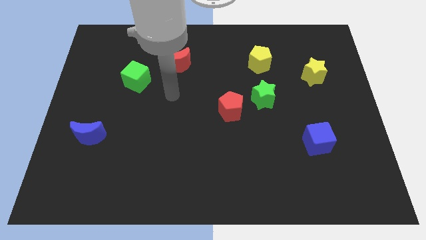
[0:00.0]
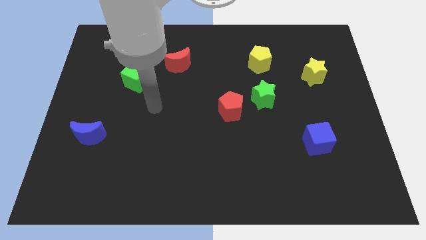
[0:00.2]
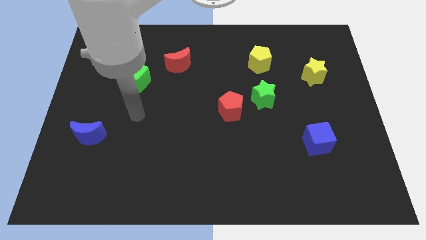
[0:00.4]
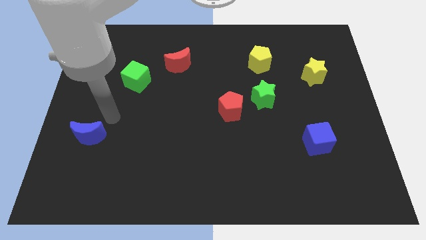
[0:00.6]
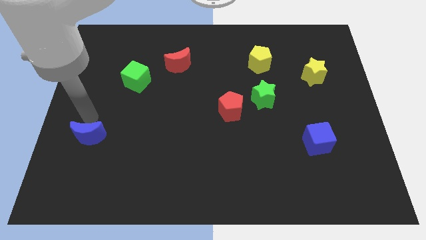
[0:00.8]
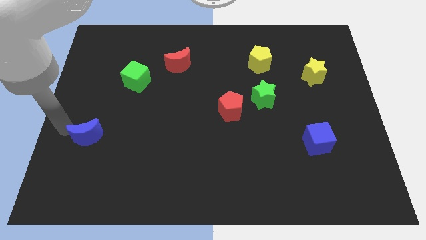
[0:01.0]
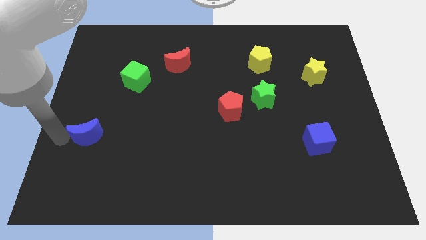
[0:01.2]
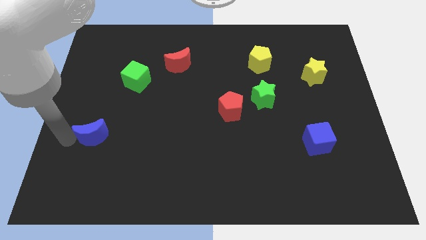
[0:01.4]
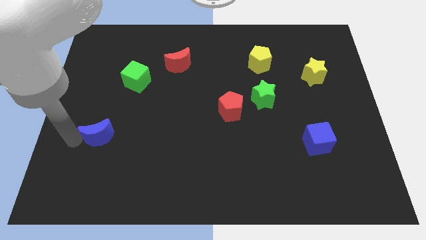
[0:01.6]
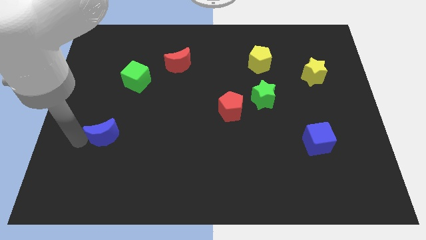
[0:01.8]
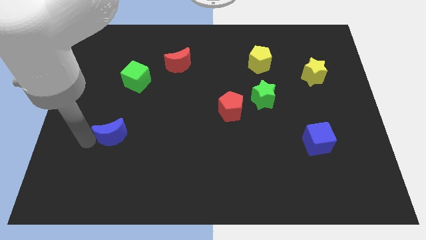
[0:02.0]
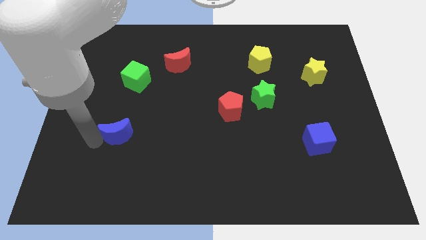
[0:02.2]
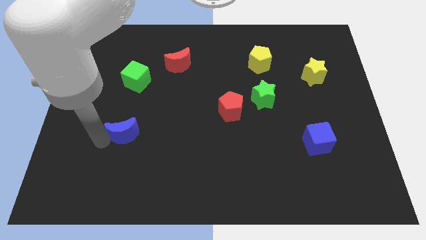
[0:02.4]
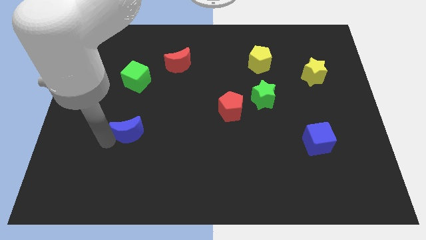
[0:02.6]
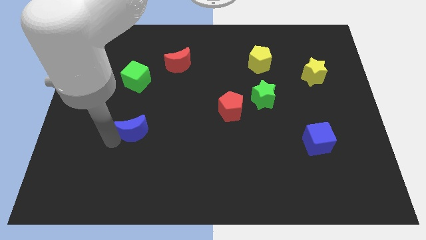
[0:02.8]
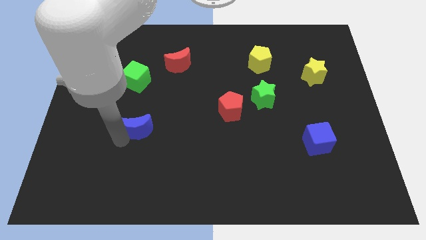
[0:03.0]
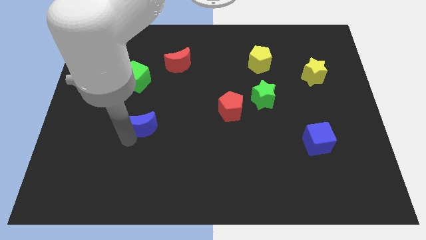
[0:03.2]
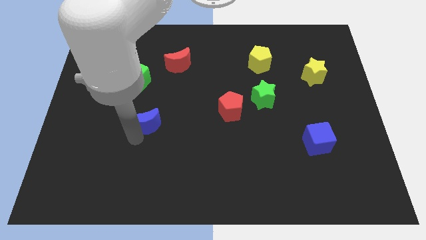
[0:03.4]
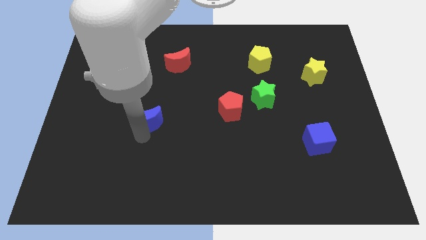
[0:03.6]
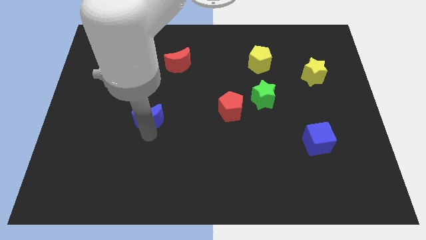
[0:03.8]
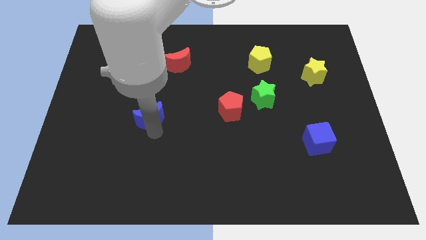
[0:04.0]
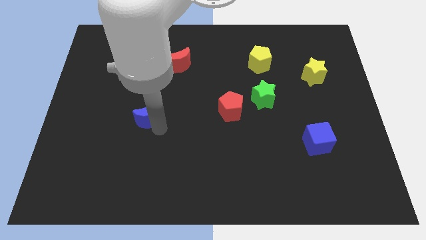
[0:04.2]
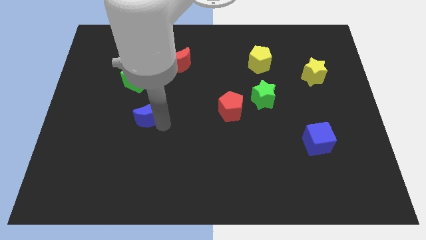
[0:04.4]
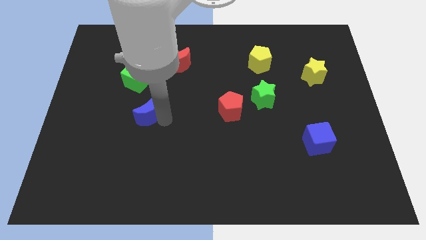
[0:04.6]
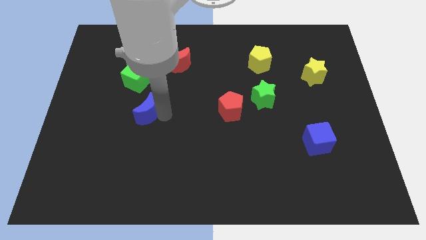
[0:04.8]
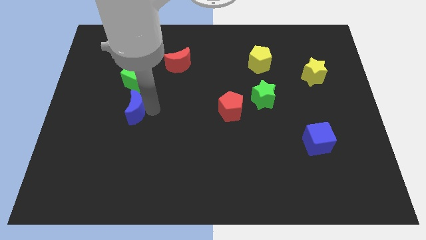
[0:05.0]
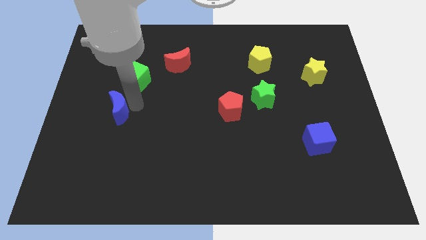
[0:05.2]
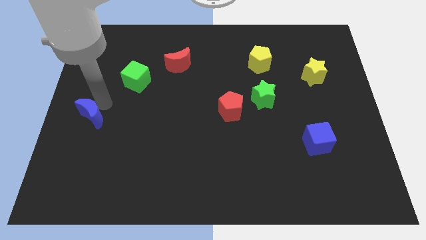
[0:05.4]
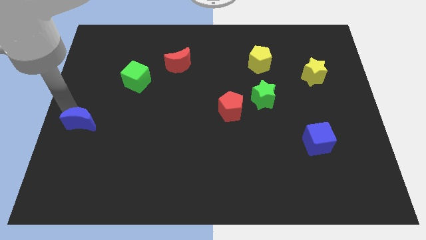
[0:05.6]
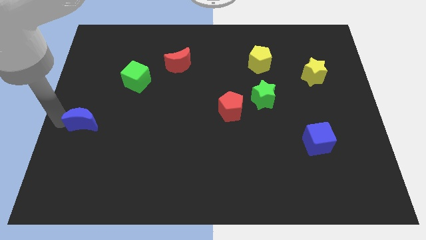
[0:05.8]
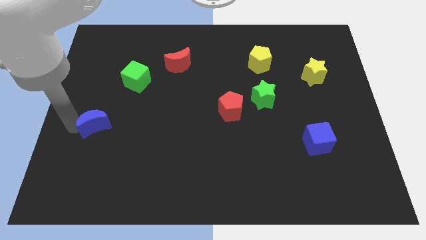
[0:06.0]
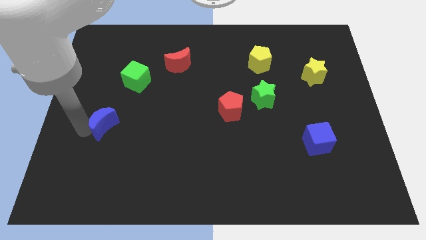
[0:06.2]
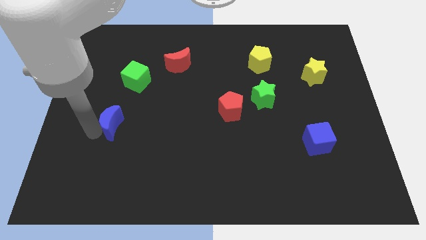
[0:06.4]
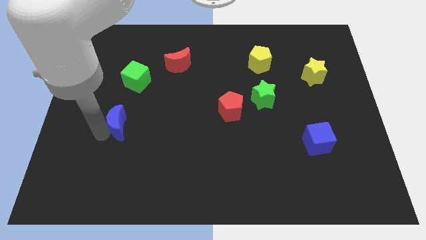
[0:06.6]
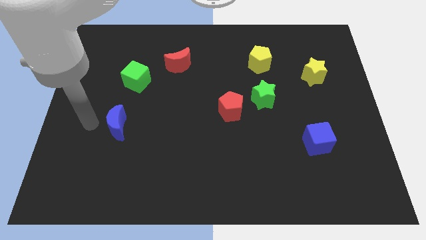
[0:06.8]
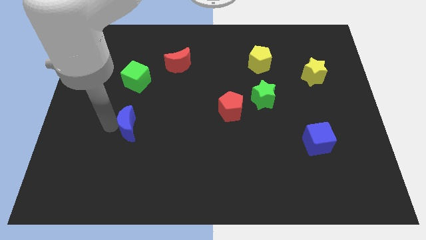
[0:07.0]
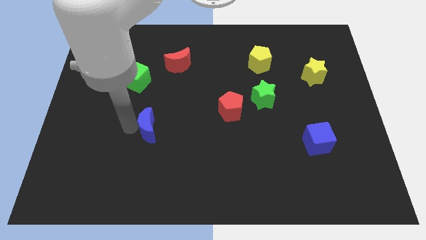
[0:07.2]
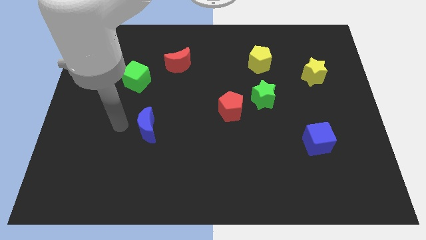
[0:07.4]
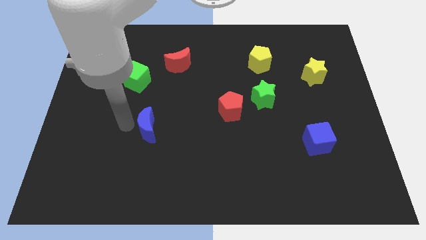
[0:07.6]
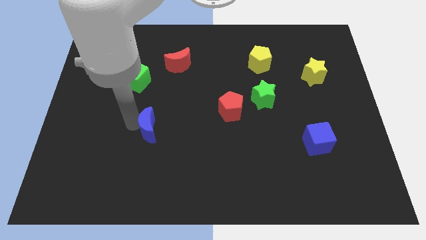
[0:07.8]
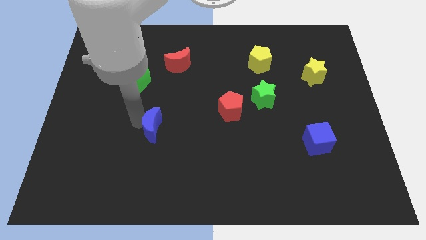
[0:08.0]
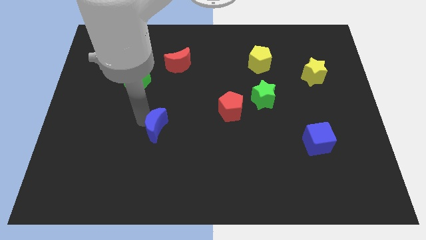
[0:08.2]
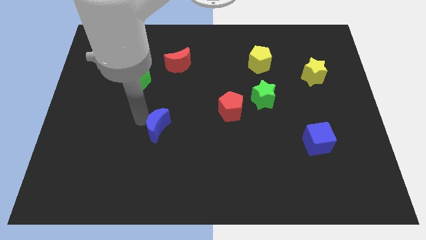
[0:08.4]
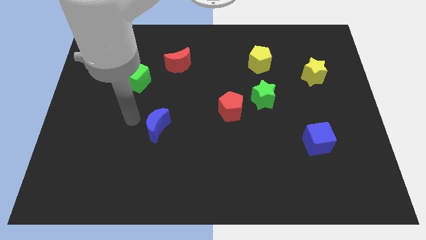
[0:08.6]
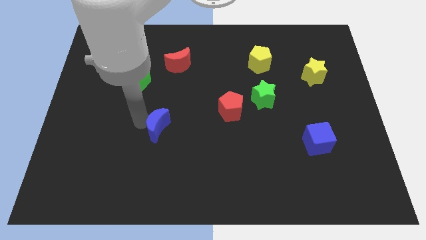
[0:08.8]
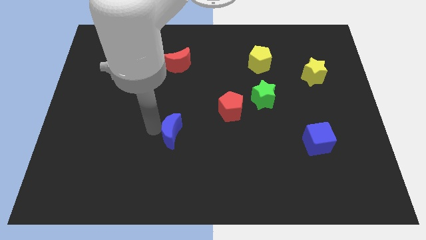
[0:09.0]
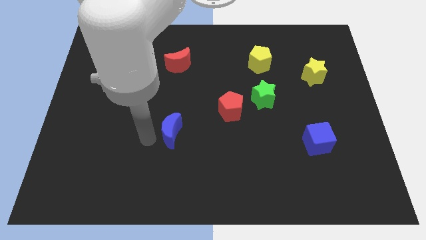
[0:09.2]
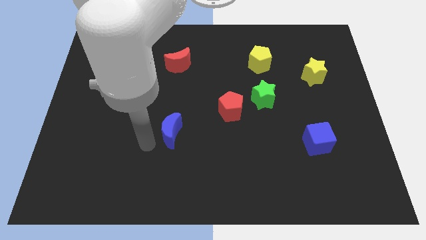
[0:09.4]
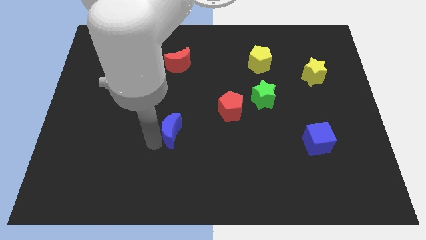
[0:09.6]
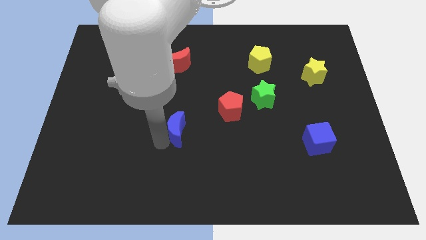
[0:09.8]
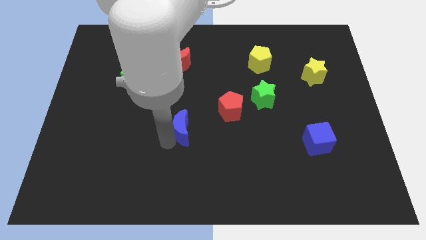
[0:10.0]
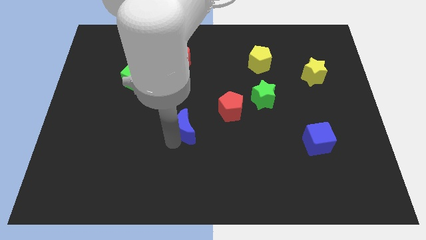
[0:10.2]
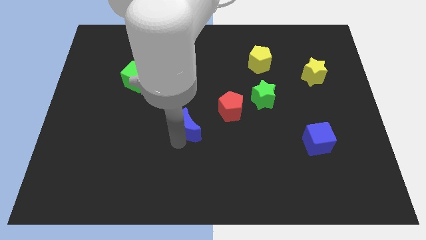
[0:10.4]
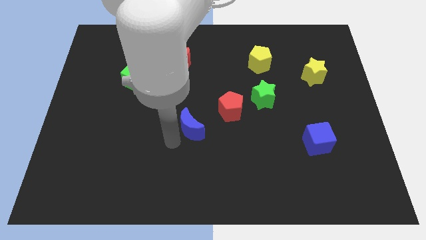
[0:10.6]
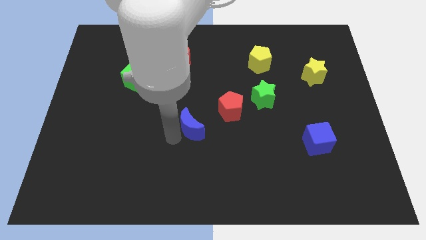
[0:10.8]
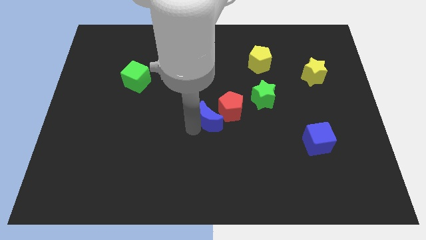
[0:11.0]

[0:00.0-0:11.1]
put the blue moon next to the red pentagon

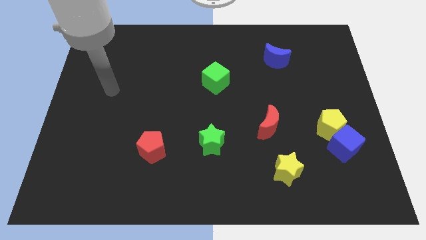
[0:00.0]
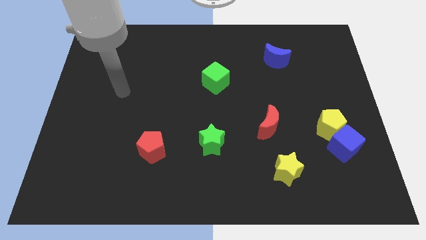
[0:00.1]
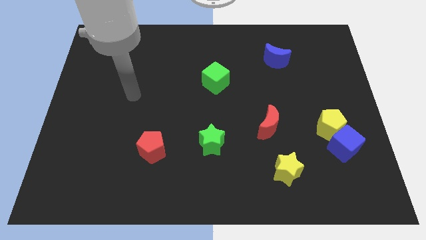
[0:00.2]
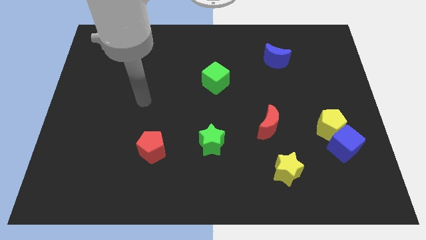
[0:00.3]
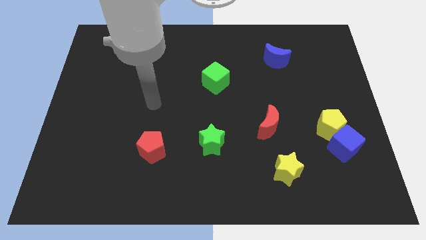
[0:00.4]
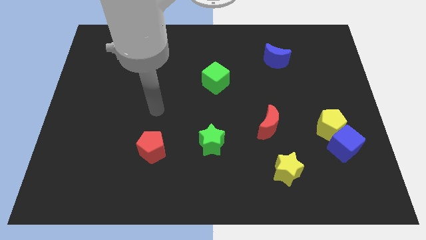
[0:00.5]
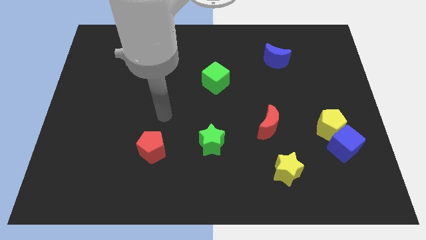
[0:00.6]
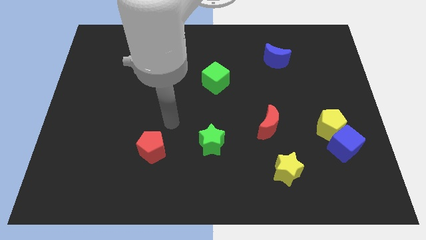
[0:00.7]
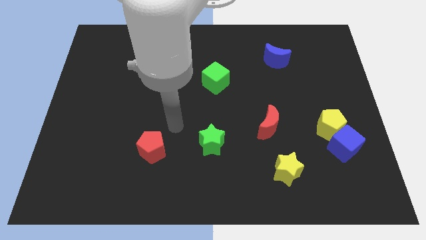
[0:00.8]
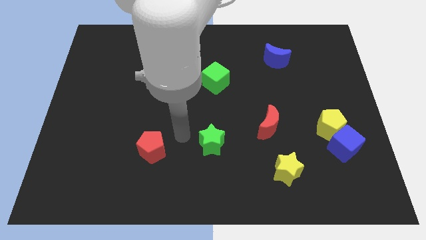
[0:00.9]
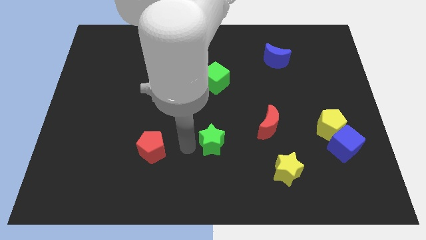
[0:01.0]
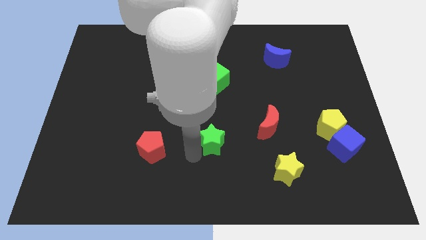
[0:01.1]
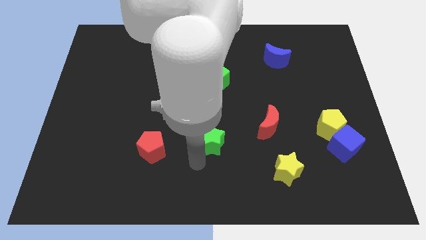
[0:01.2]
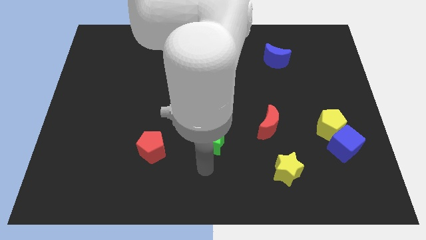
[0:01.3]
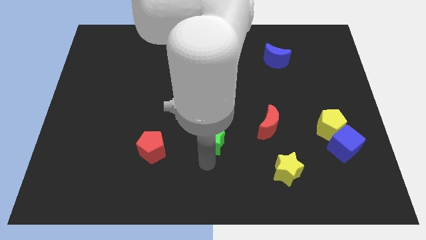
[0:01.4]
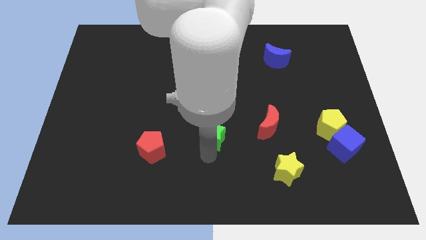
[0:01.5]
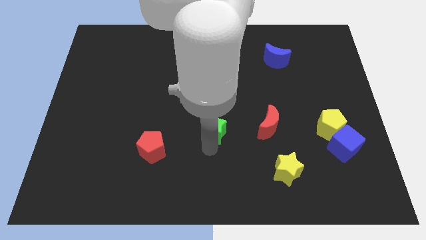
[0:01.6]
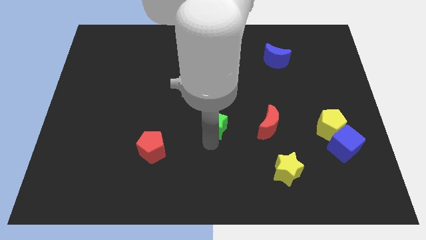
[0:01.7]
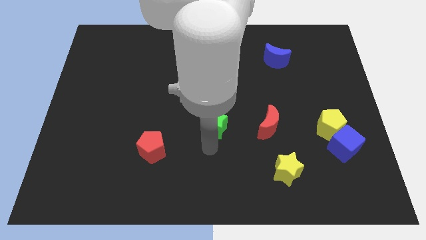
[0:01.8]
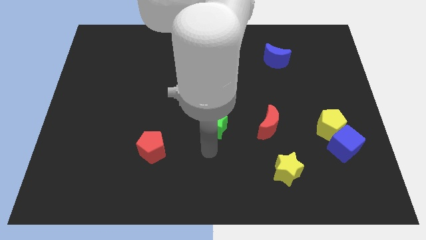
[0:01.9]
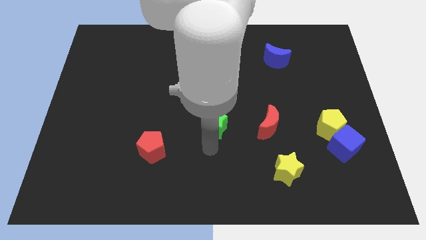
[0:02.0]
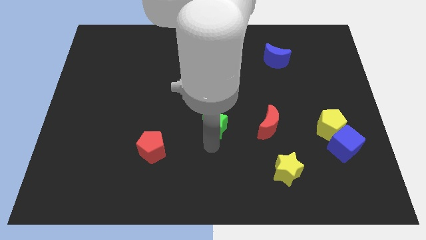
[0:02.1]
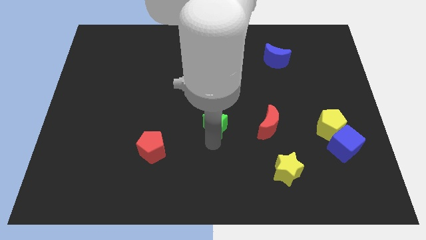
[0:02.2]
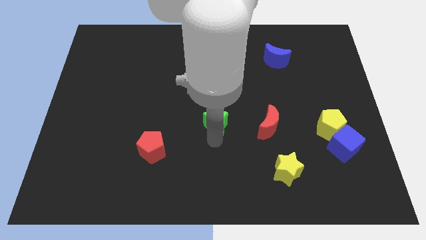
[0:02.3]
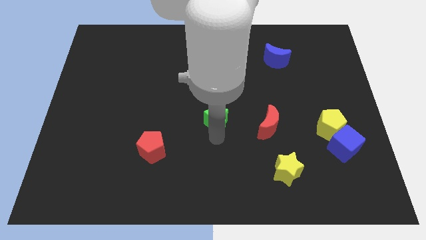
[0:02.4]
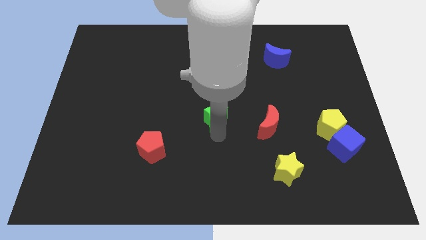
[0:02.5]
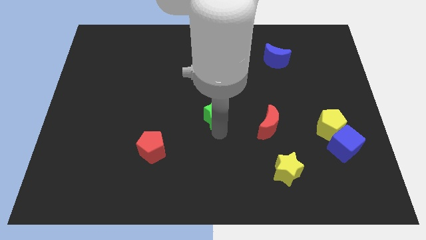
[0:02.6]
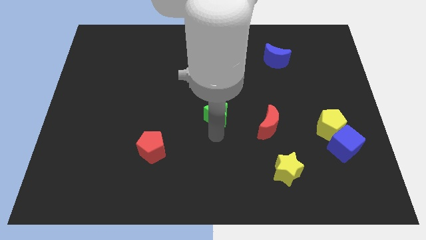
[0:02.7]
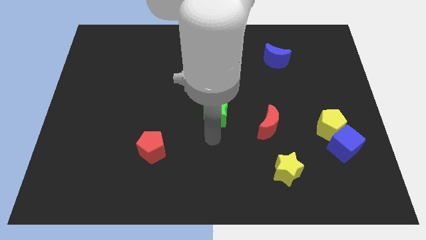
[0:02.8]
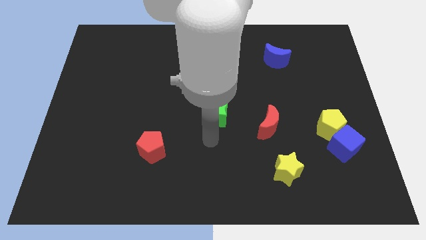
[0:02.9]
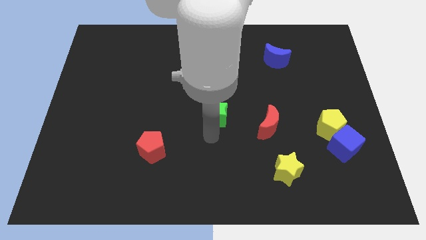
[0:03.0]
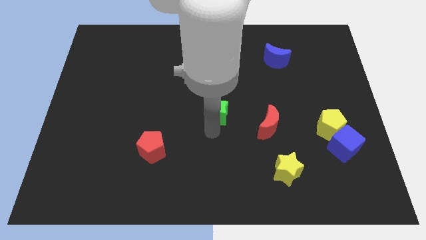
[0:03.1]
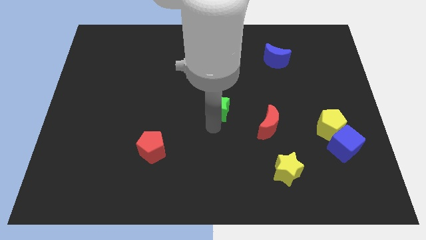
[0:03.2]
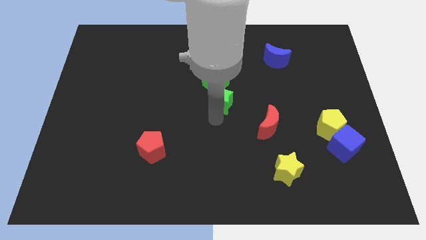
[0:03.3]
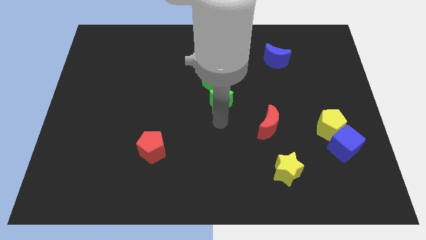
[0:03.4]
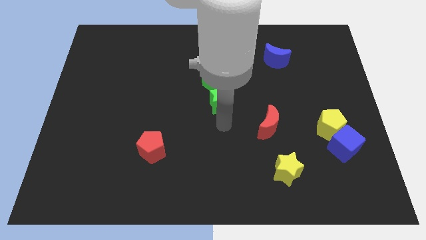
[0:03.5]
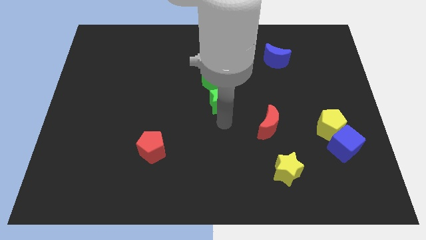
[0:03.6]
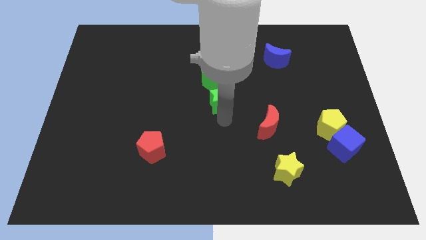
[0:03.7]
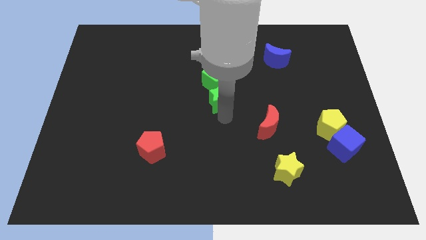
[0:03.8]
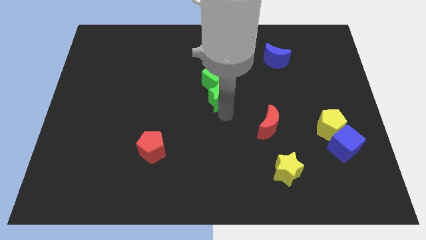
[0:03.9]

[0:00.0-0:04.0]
move the green star towards the green cube
